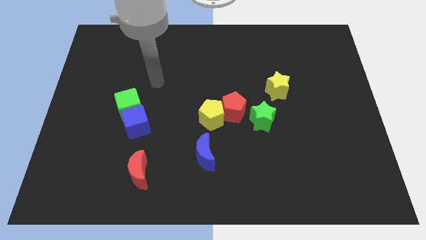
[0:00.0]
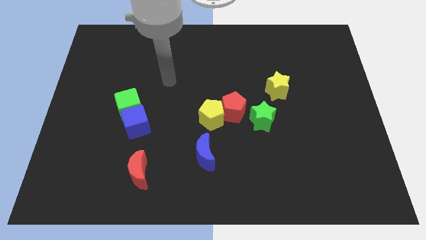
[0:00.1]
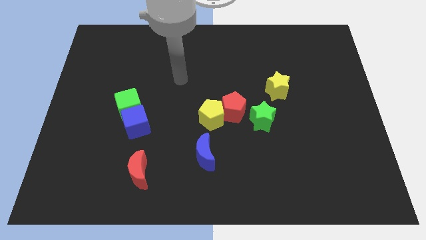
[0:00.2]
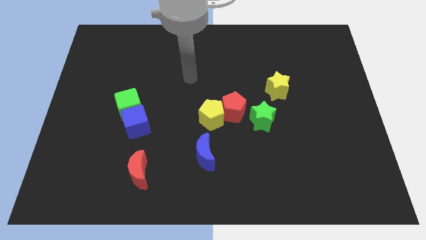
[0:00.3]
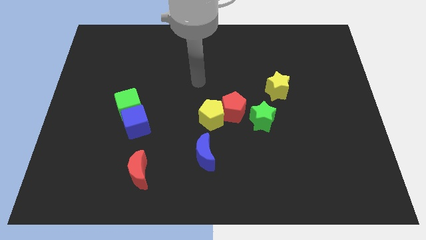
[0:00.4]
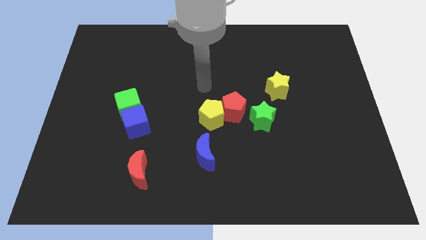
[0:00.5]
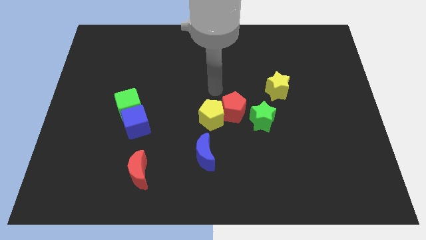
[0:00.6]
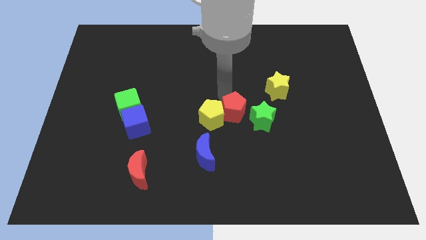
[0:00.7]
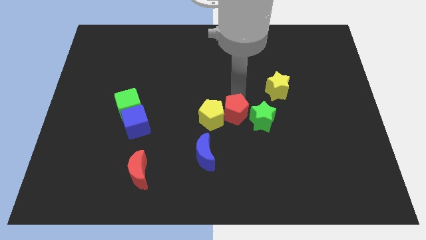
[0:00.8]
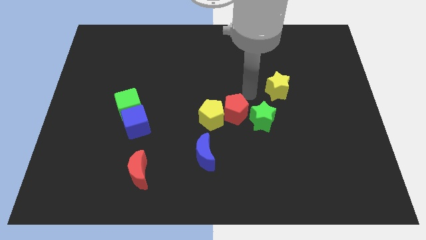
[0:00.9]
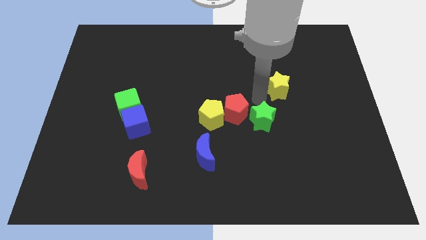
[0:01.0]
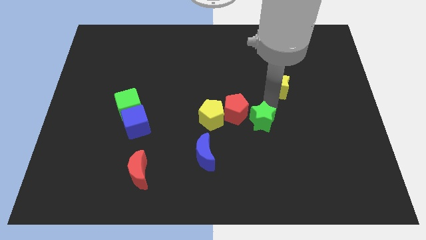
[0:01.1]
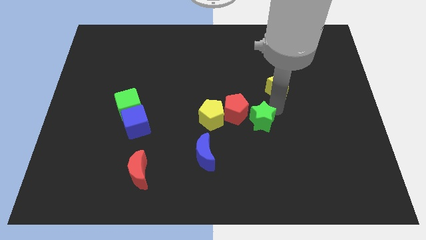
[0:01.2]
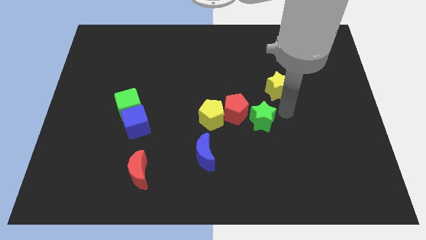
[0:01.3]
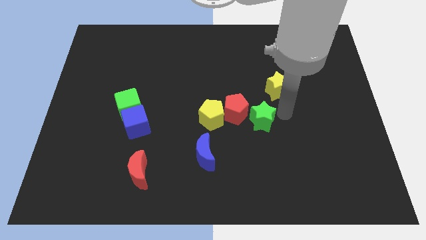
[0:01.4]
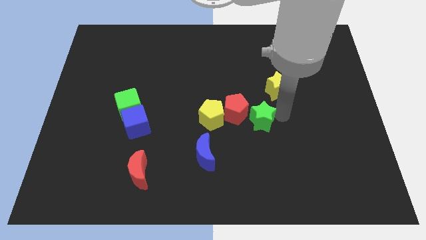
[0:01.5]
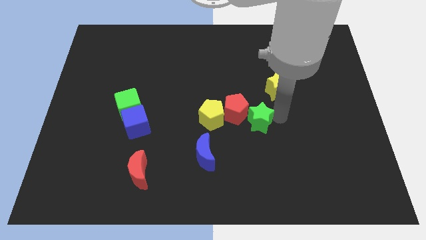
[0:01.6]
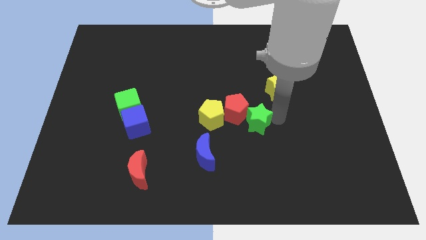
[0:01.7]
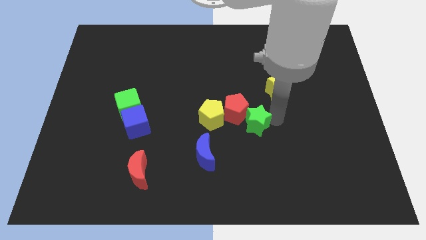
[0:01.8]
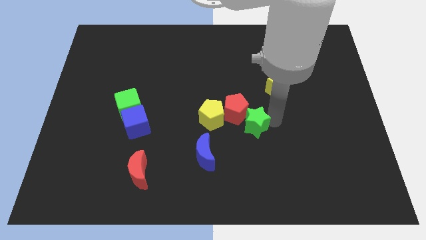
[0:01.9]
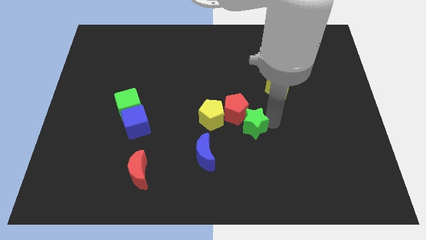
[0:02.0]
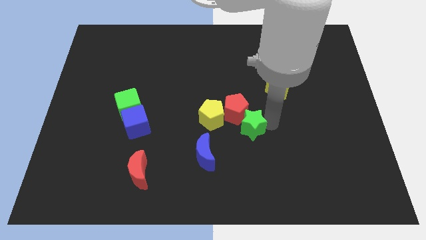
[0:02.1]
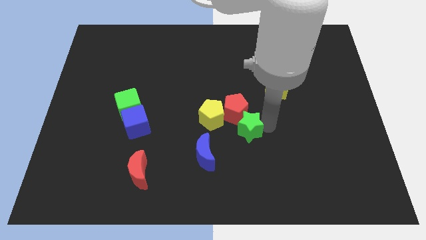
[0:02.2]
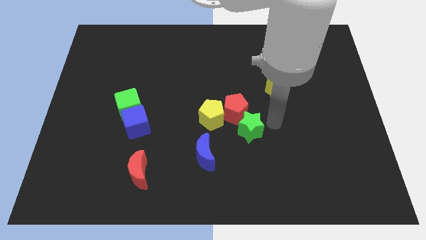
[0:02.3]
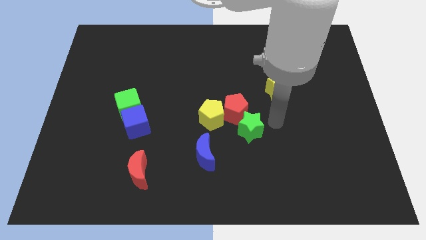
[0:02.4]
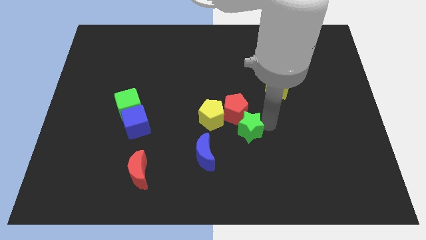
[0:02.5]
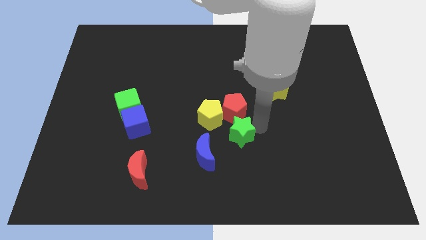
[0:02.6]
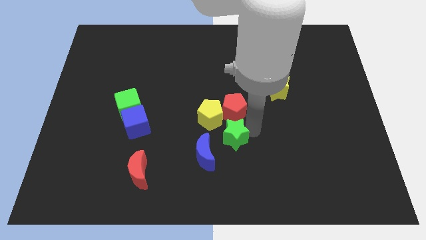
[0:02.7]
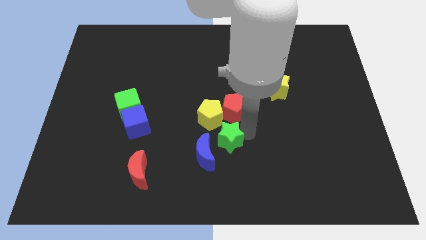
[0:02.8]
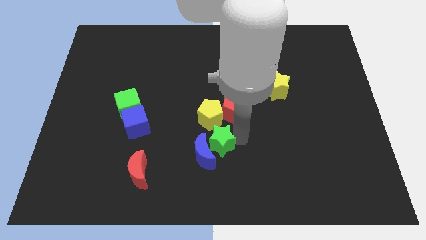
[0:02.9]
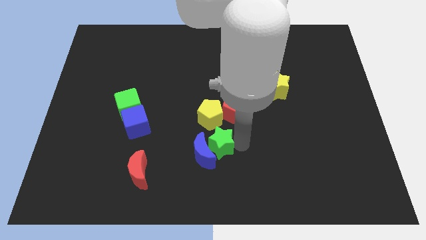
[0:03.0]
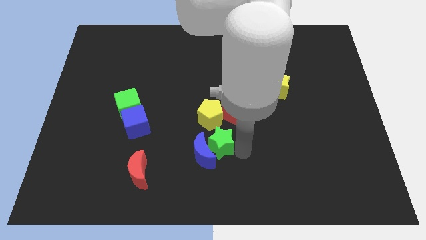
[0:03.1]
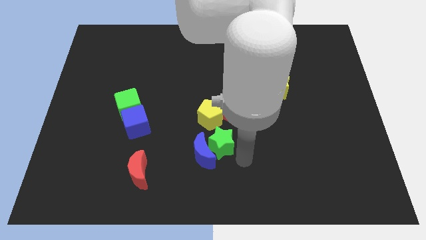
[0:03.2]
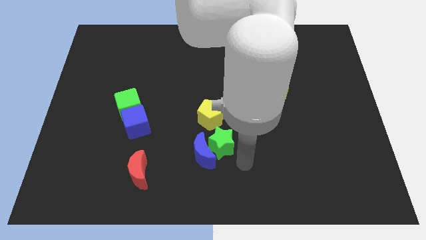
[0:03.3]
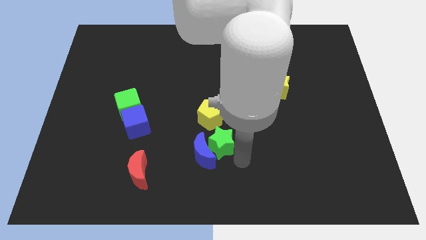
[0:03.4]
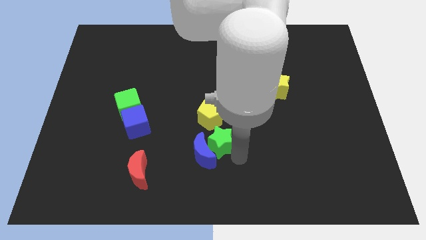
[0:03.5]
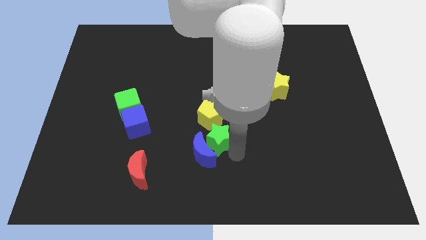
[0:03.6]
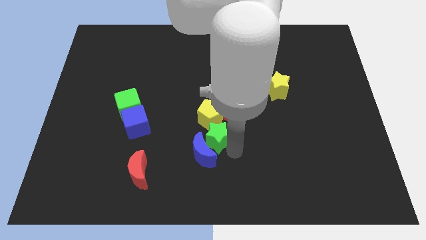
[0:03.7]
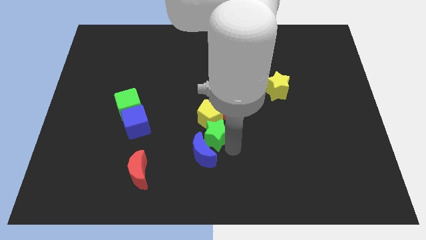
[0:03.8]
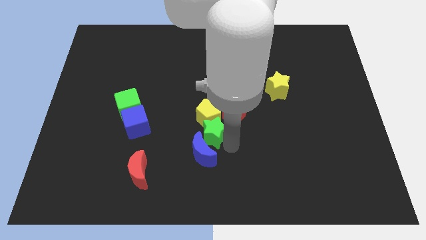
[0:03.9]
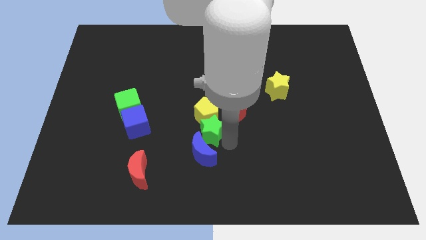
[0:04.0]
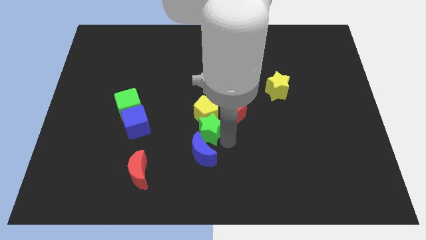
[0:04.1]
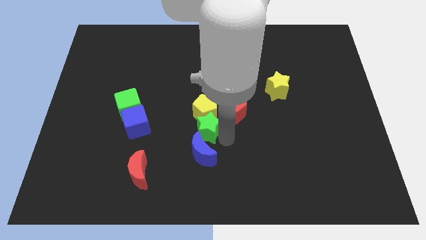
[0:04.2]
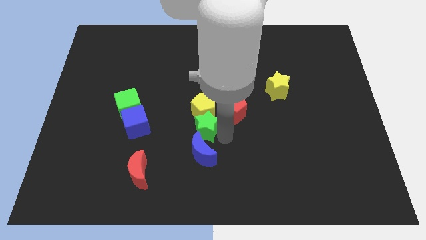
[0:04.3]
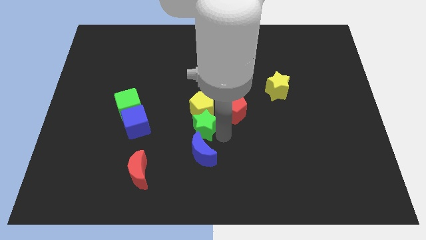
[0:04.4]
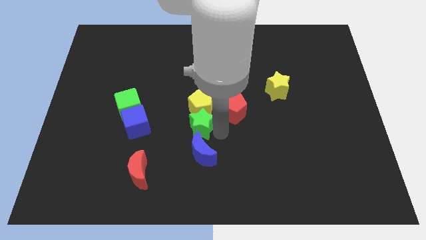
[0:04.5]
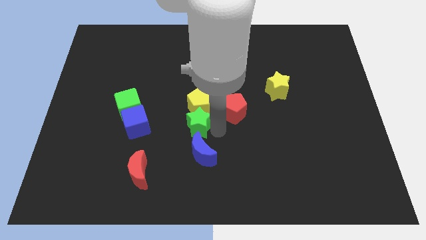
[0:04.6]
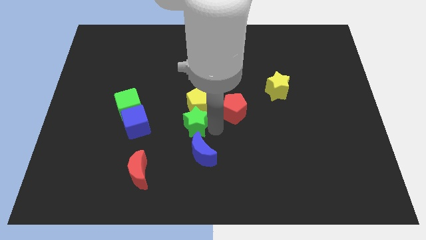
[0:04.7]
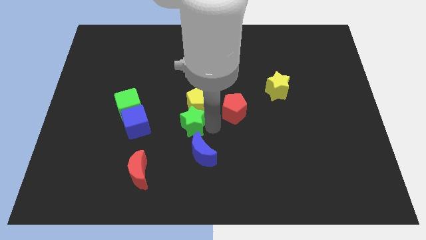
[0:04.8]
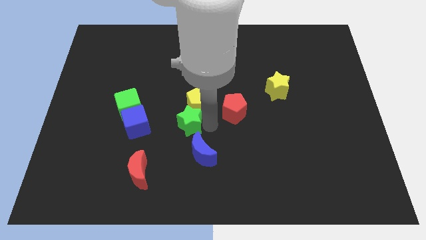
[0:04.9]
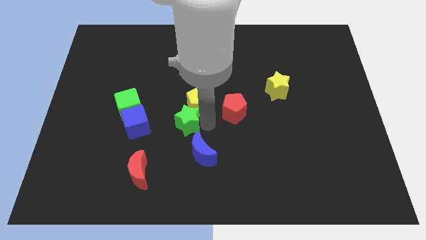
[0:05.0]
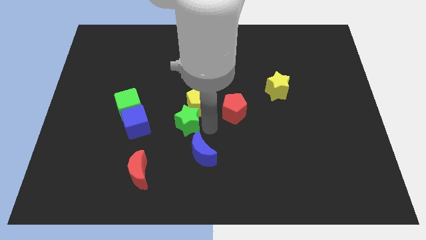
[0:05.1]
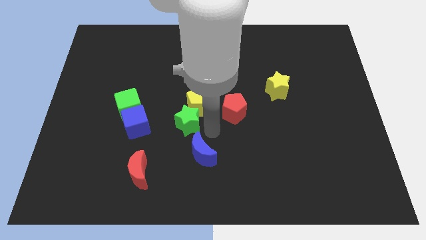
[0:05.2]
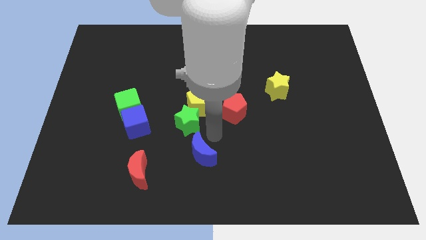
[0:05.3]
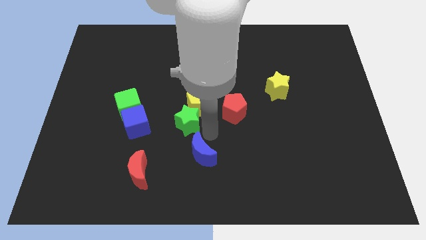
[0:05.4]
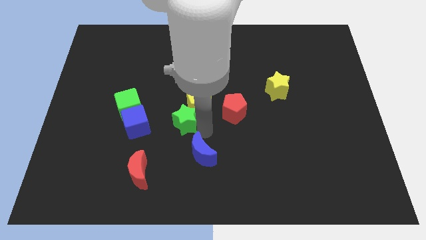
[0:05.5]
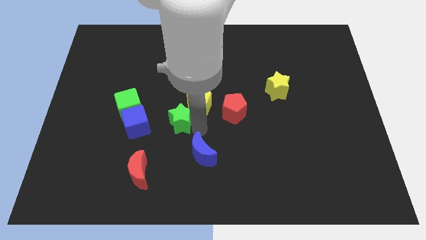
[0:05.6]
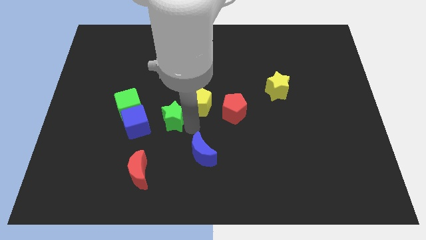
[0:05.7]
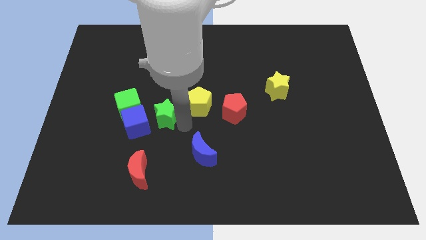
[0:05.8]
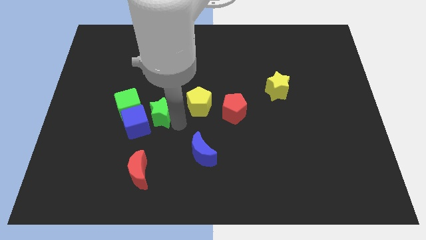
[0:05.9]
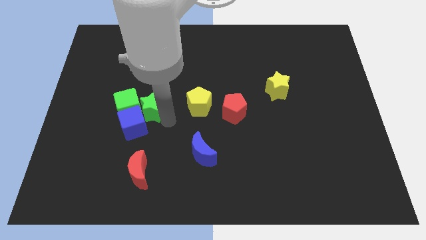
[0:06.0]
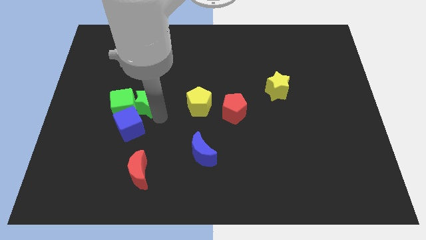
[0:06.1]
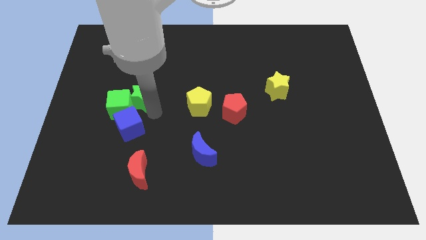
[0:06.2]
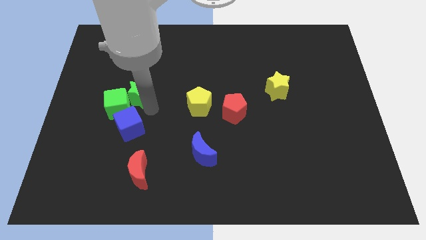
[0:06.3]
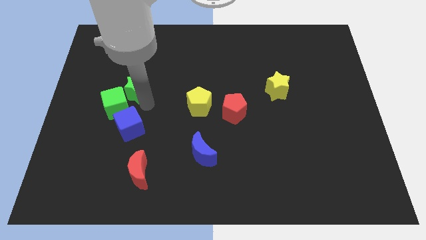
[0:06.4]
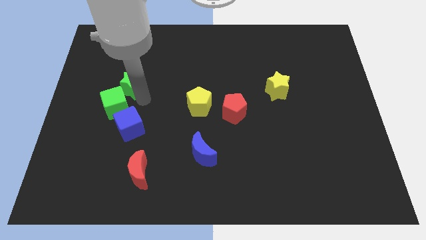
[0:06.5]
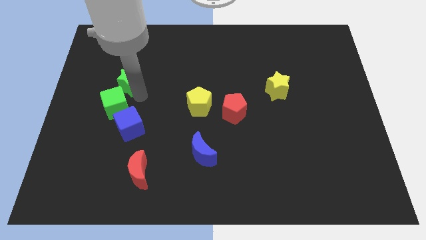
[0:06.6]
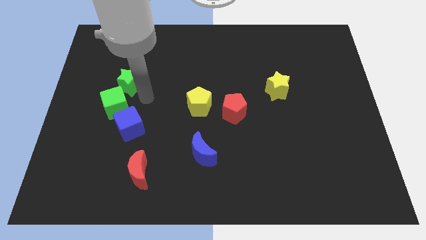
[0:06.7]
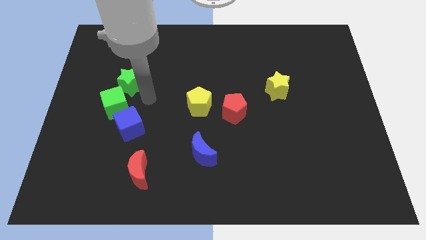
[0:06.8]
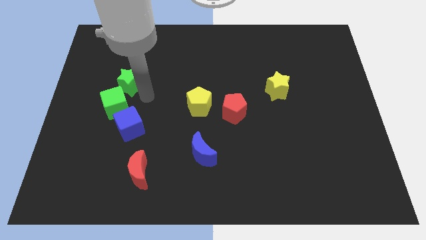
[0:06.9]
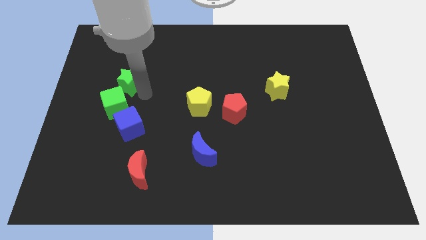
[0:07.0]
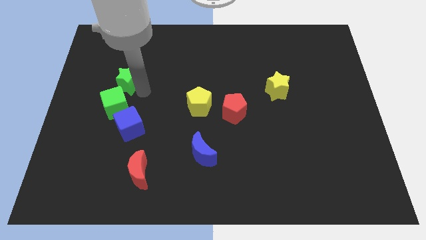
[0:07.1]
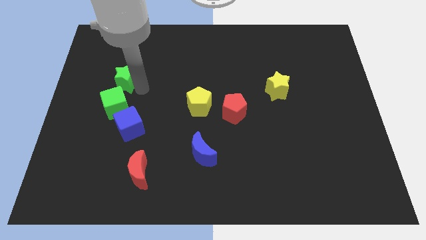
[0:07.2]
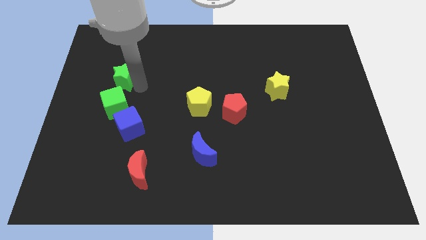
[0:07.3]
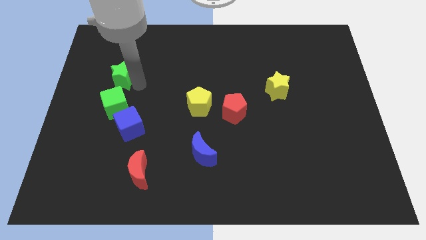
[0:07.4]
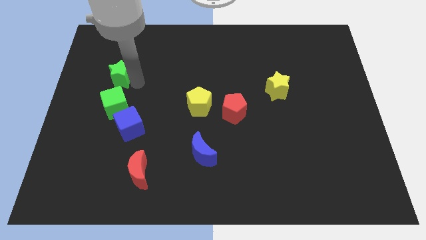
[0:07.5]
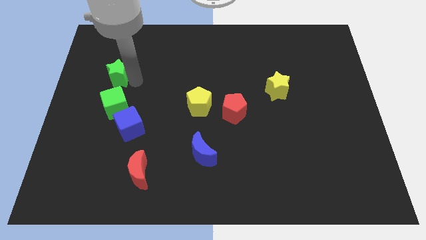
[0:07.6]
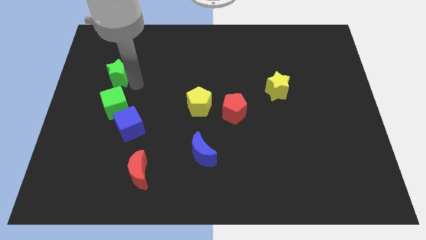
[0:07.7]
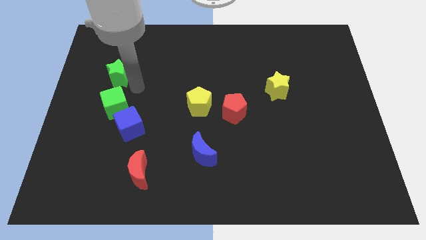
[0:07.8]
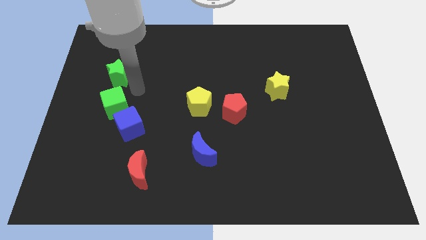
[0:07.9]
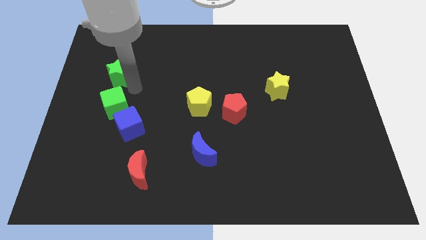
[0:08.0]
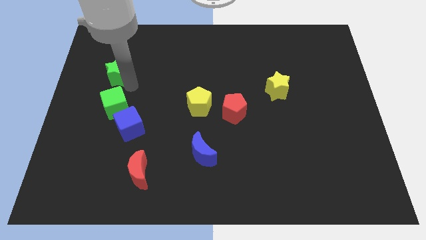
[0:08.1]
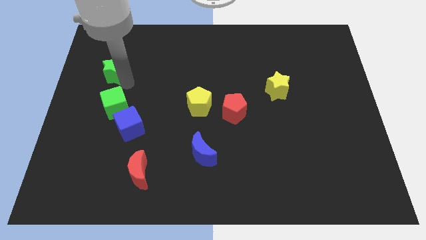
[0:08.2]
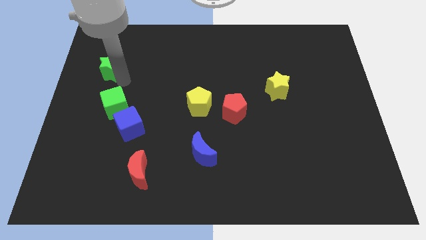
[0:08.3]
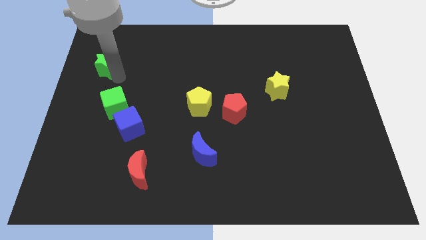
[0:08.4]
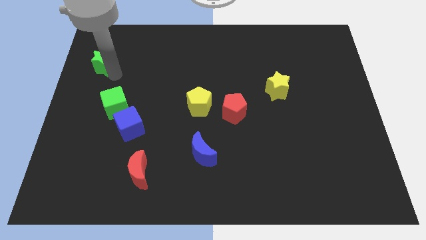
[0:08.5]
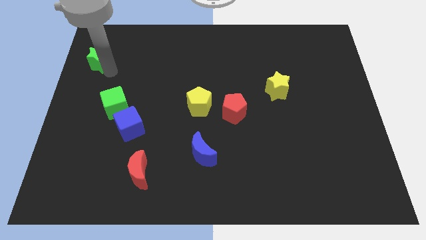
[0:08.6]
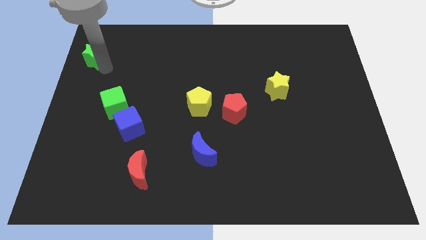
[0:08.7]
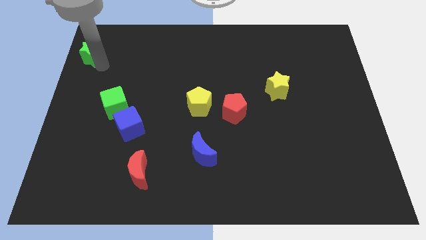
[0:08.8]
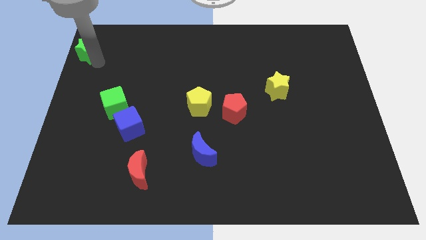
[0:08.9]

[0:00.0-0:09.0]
slide the green star to the upper left corner

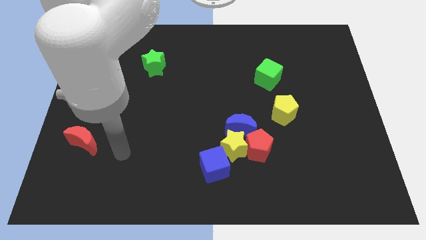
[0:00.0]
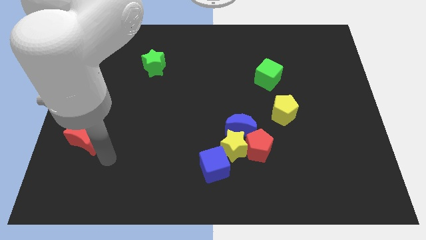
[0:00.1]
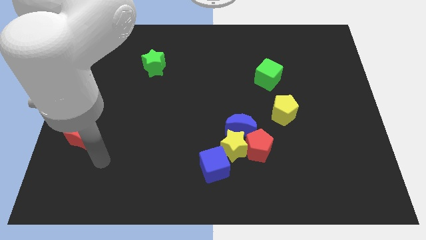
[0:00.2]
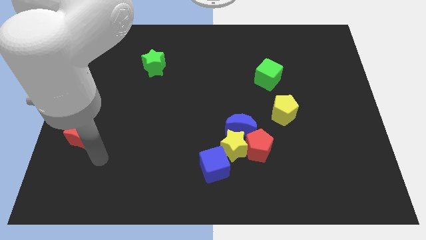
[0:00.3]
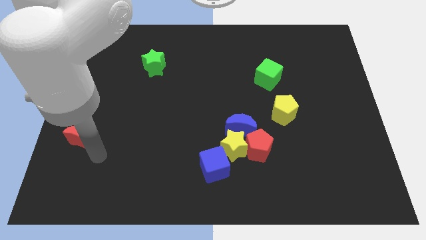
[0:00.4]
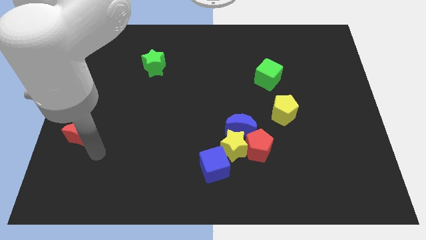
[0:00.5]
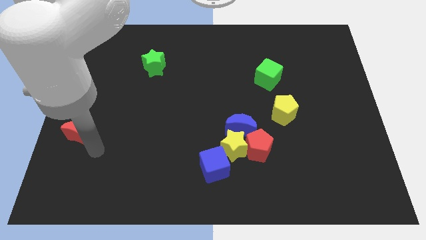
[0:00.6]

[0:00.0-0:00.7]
put the red moon to the left side of the board
